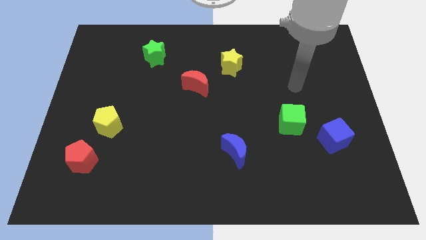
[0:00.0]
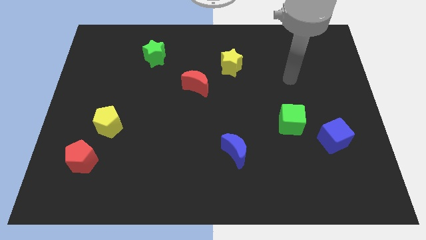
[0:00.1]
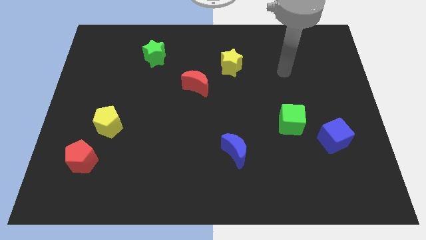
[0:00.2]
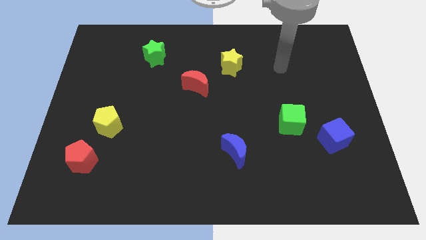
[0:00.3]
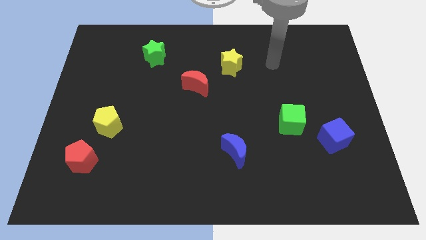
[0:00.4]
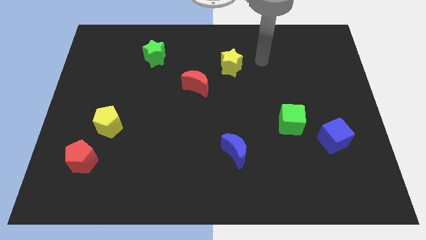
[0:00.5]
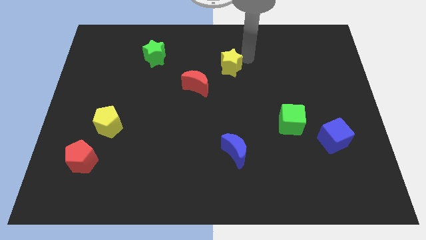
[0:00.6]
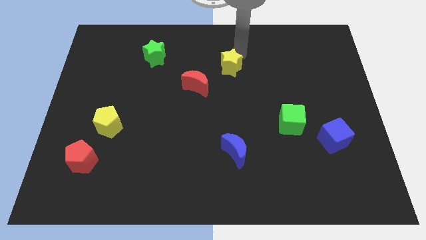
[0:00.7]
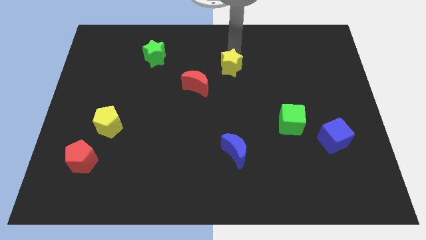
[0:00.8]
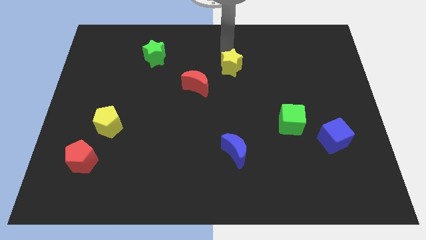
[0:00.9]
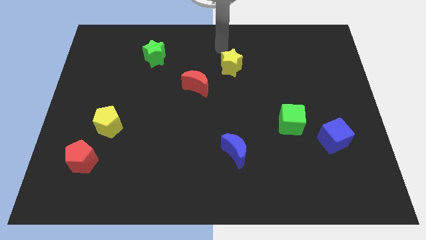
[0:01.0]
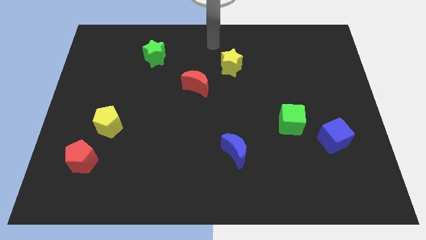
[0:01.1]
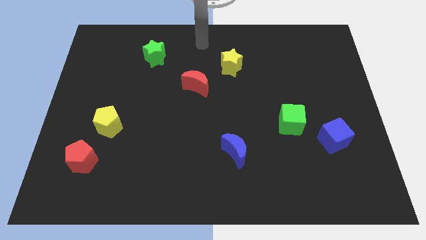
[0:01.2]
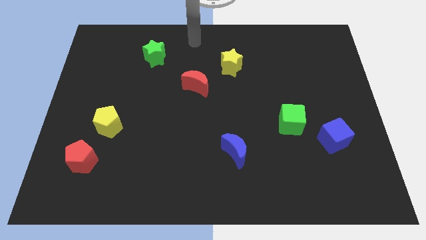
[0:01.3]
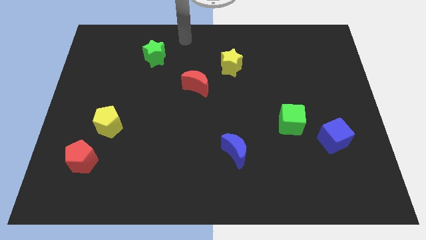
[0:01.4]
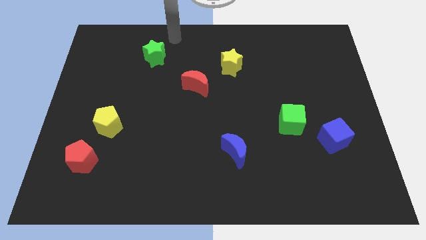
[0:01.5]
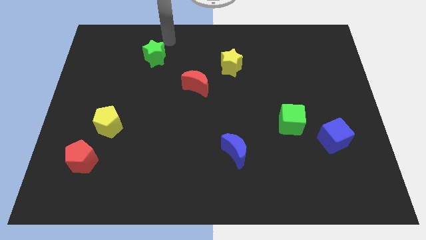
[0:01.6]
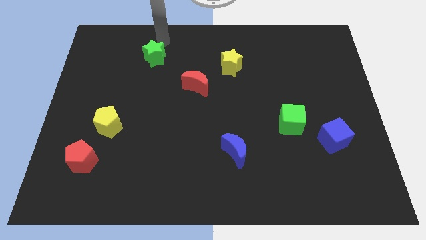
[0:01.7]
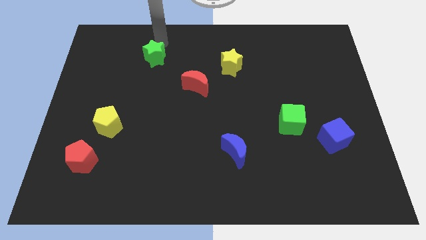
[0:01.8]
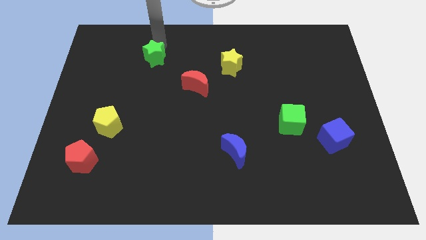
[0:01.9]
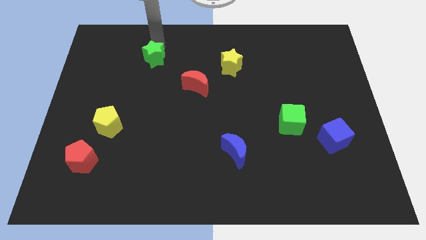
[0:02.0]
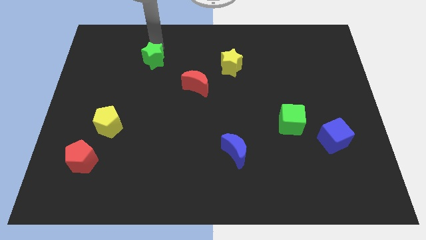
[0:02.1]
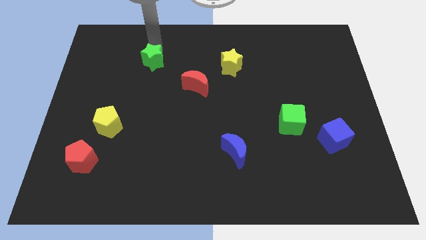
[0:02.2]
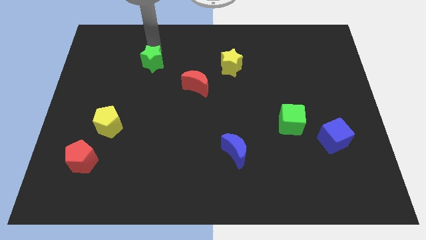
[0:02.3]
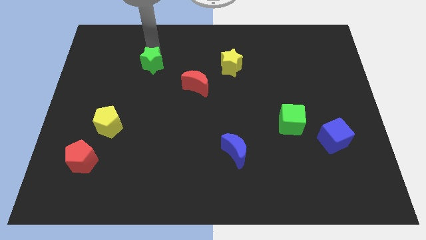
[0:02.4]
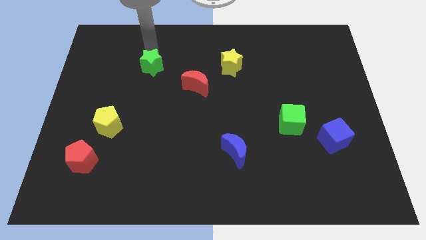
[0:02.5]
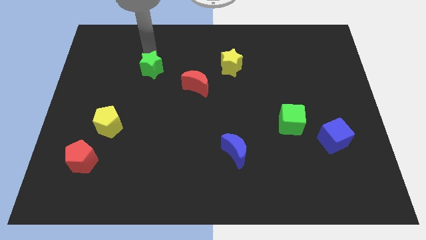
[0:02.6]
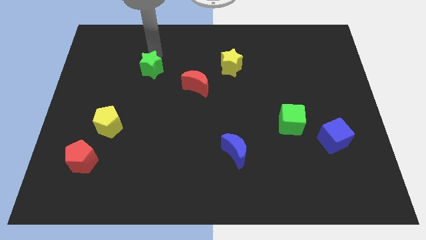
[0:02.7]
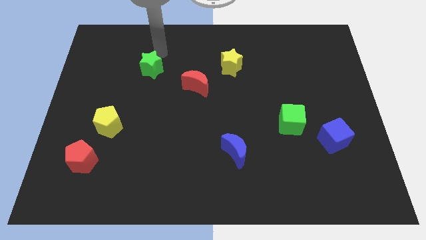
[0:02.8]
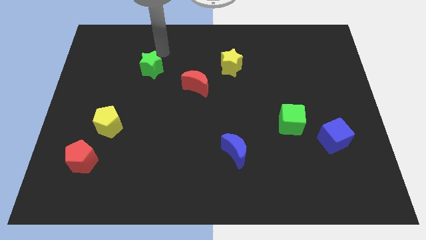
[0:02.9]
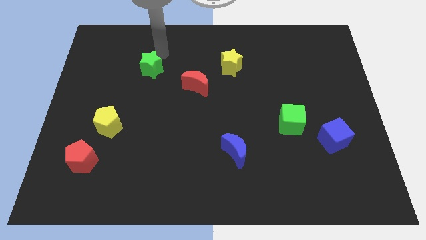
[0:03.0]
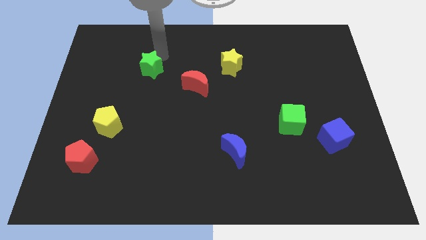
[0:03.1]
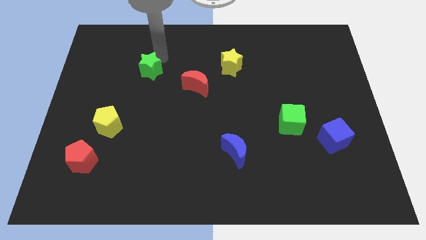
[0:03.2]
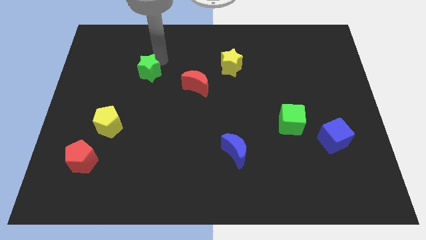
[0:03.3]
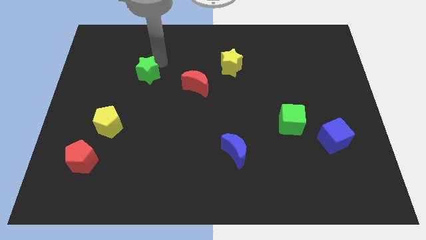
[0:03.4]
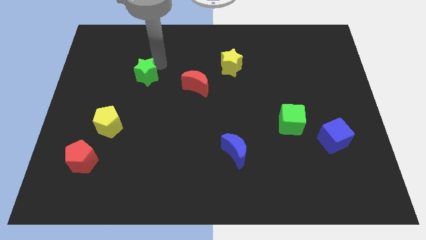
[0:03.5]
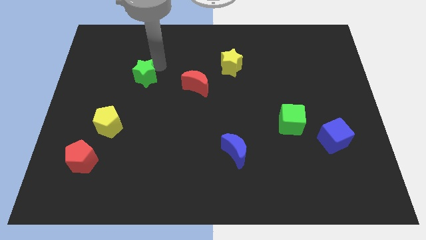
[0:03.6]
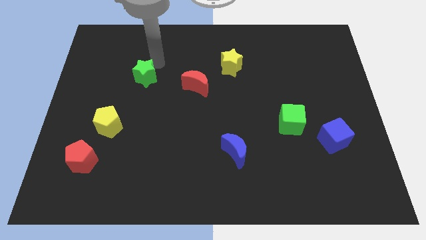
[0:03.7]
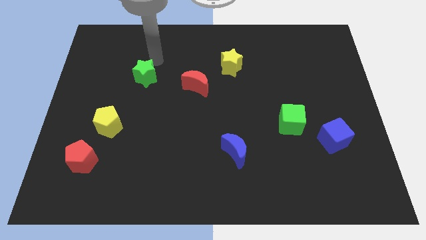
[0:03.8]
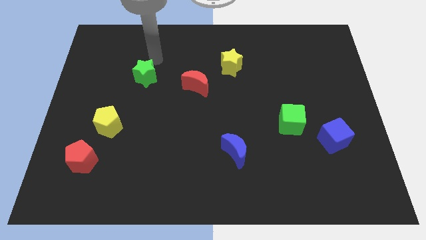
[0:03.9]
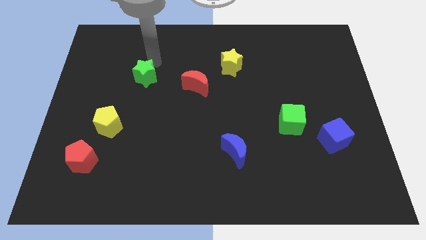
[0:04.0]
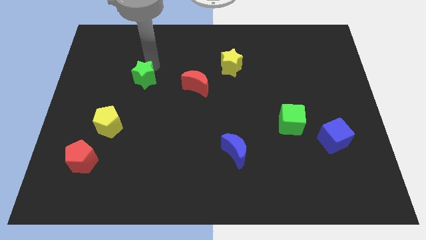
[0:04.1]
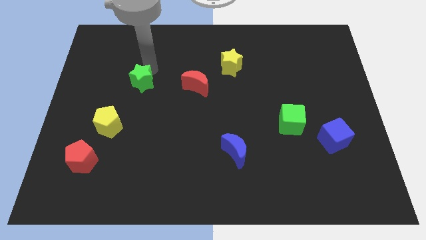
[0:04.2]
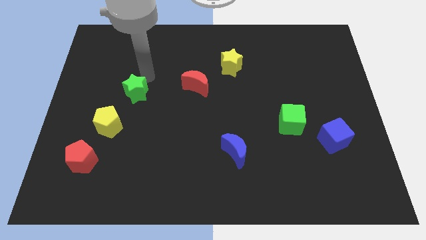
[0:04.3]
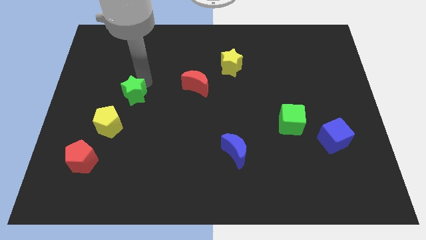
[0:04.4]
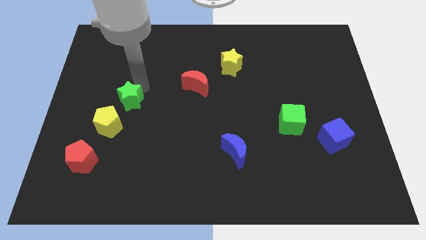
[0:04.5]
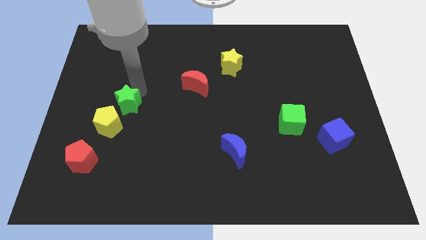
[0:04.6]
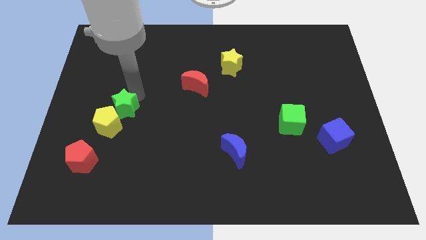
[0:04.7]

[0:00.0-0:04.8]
slide the green star close to the yellow pentagon

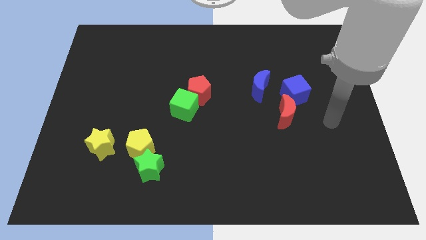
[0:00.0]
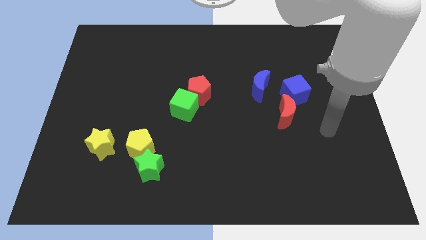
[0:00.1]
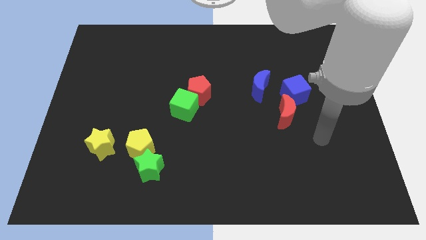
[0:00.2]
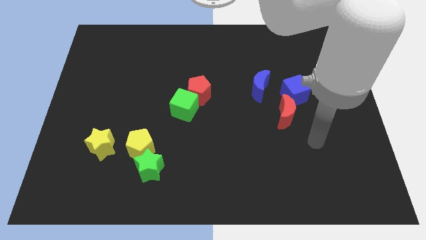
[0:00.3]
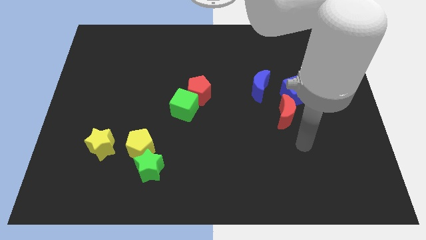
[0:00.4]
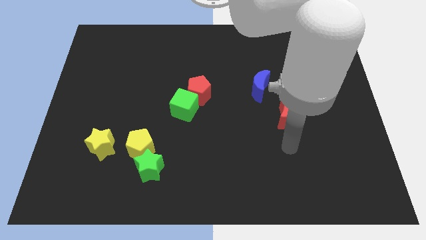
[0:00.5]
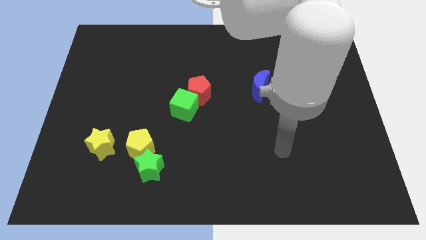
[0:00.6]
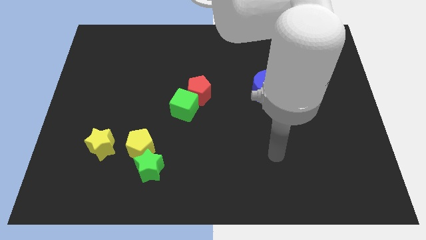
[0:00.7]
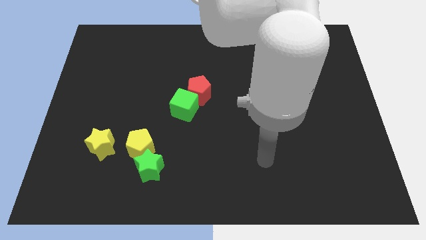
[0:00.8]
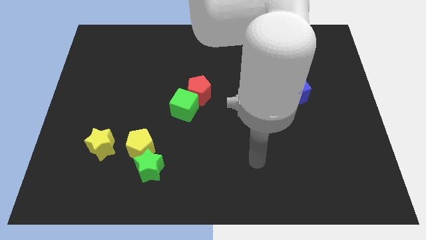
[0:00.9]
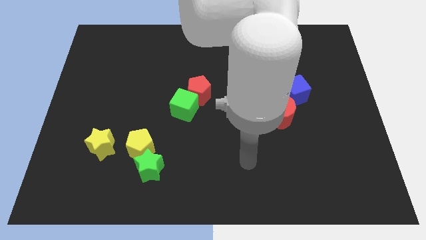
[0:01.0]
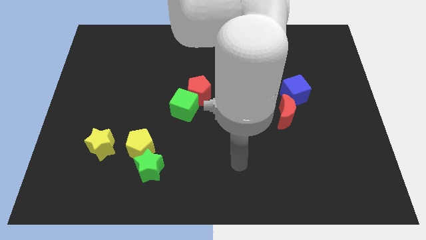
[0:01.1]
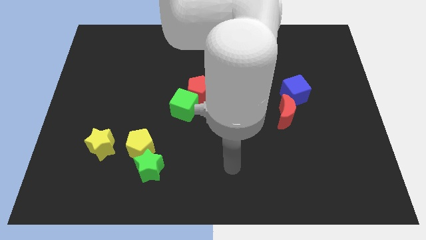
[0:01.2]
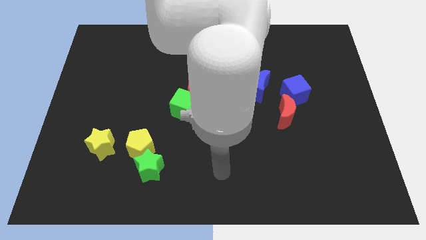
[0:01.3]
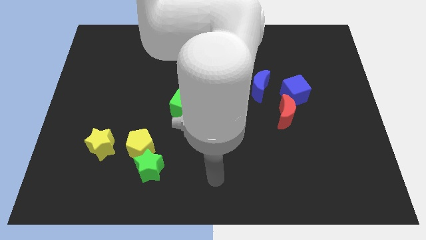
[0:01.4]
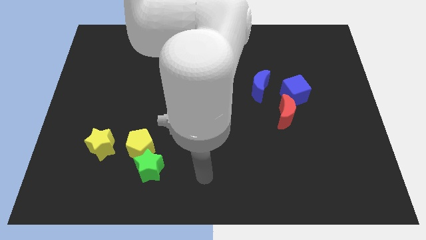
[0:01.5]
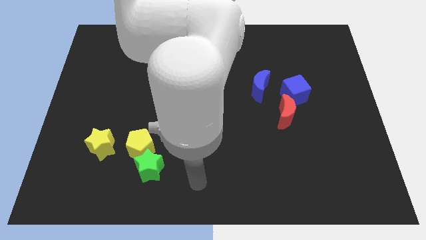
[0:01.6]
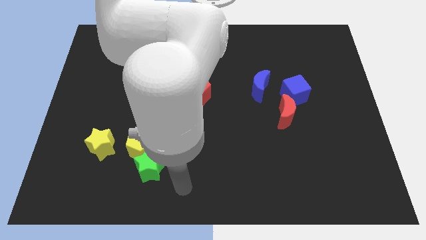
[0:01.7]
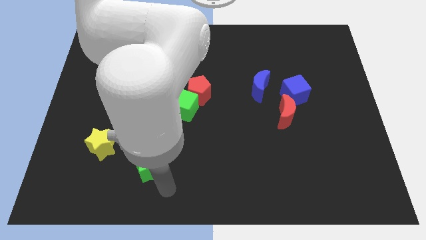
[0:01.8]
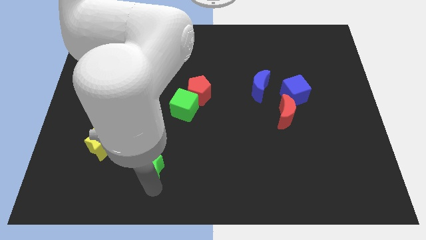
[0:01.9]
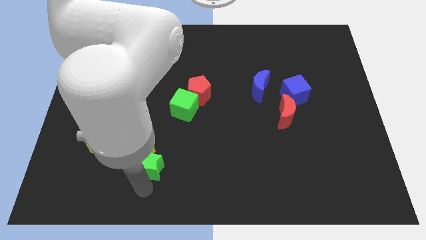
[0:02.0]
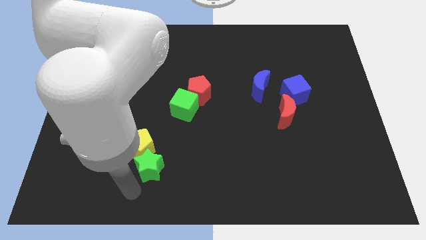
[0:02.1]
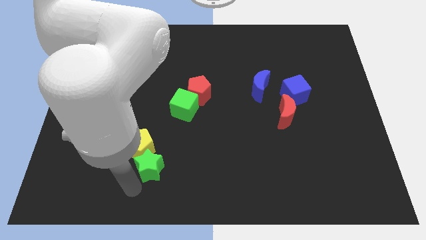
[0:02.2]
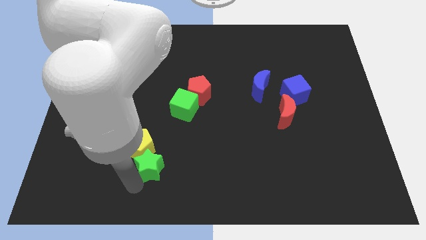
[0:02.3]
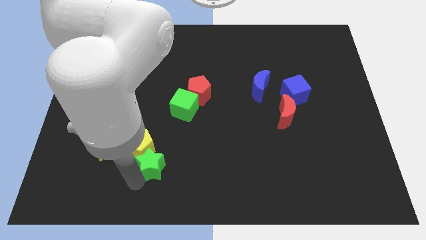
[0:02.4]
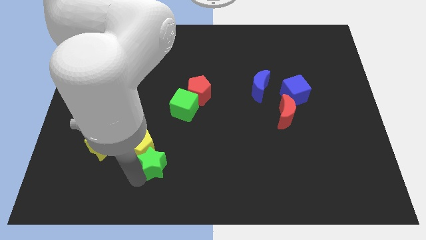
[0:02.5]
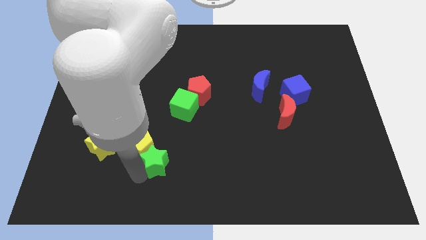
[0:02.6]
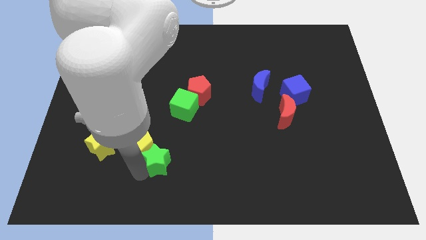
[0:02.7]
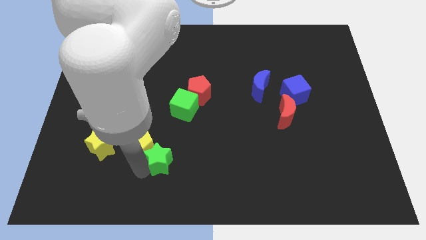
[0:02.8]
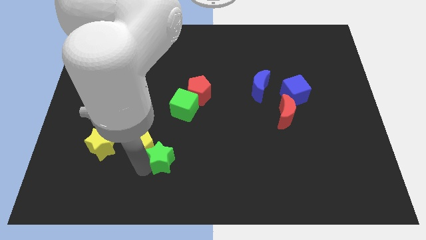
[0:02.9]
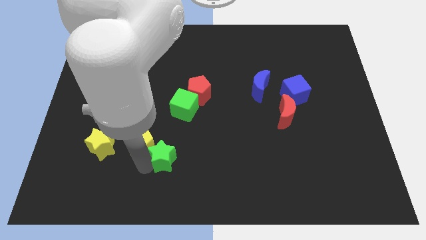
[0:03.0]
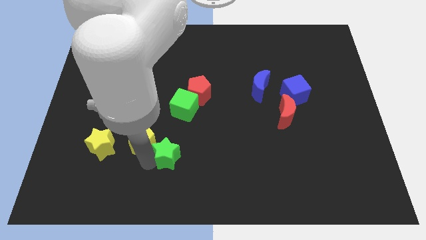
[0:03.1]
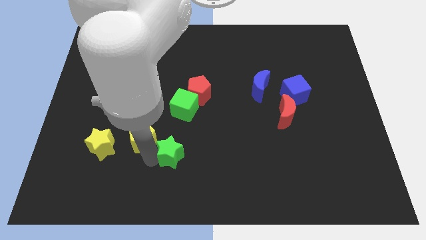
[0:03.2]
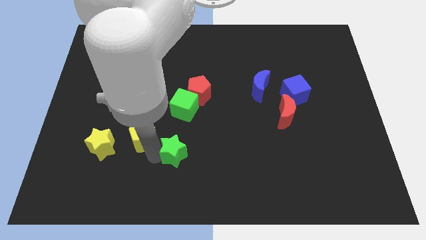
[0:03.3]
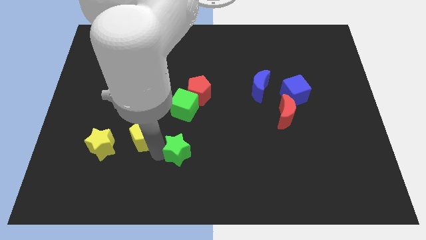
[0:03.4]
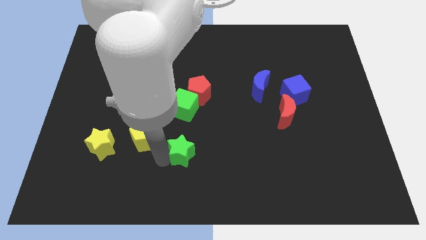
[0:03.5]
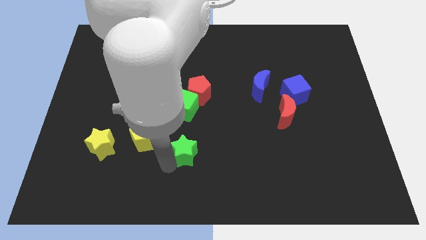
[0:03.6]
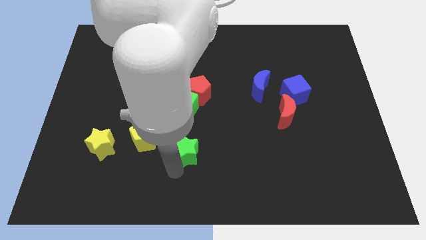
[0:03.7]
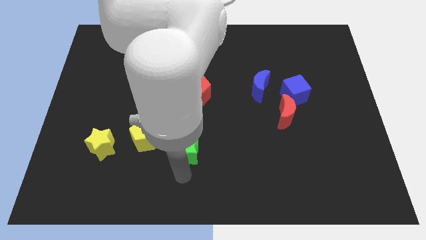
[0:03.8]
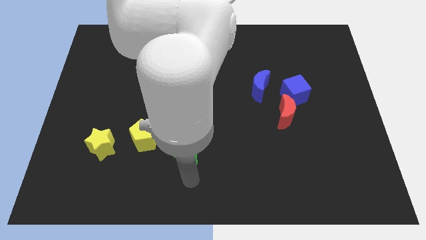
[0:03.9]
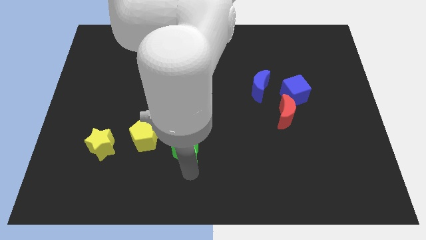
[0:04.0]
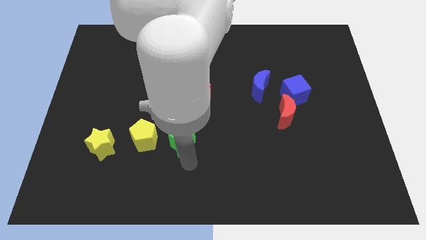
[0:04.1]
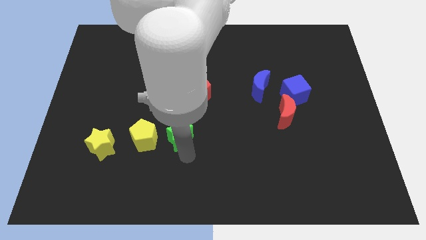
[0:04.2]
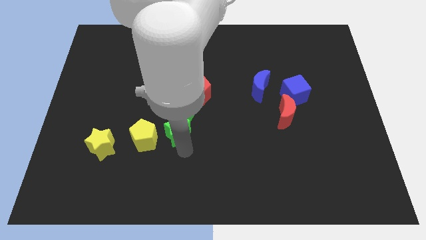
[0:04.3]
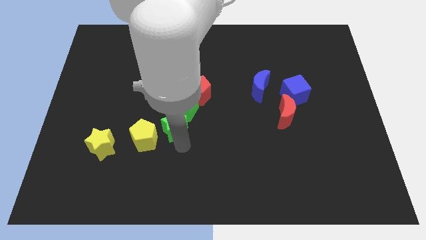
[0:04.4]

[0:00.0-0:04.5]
put the green star next to the green cube
